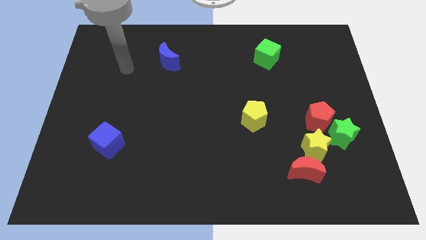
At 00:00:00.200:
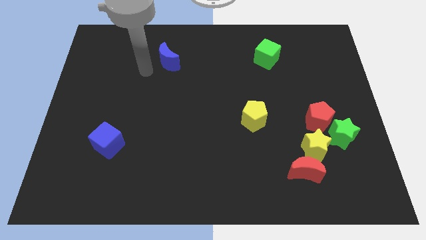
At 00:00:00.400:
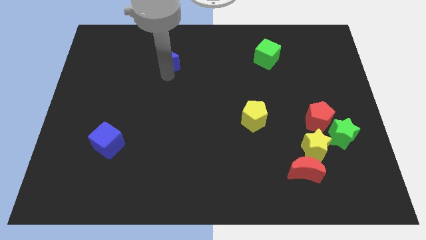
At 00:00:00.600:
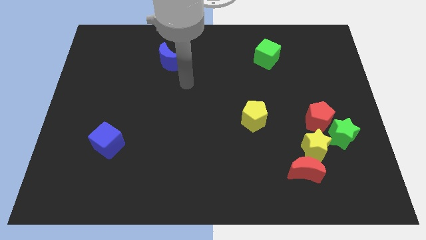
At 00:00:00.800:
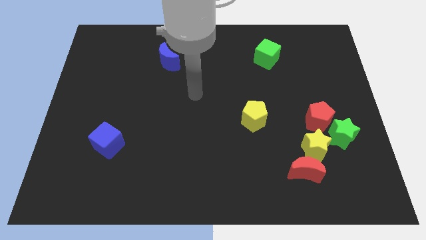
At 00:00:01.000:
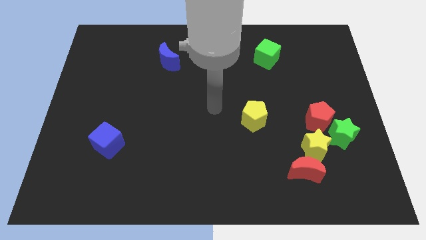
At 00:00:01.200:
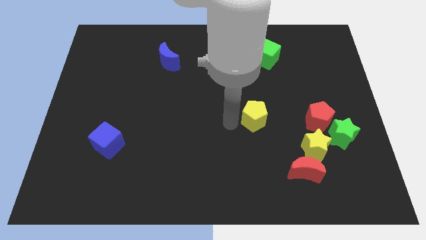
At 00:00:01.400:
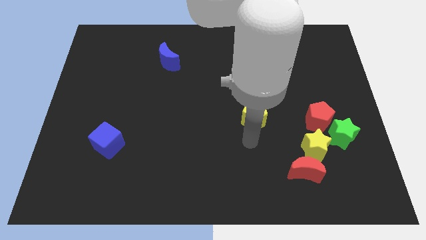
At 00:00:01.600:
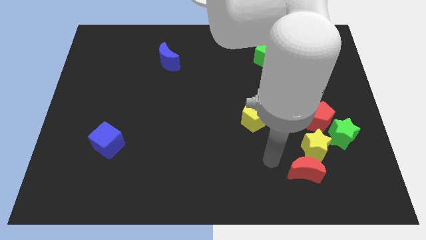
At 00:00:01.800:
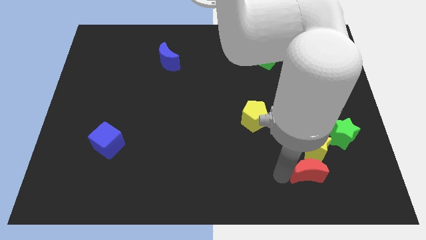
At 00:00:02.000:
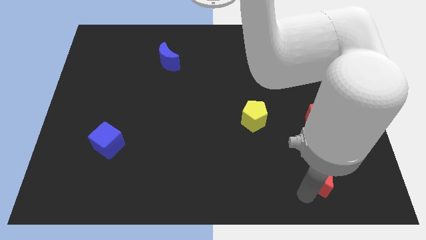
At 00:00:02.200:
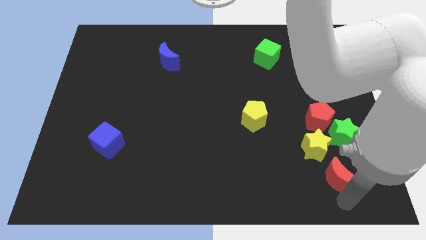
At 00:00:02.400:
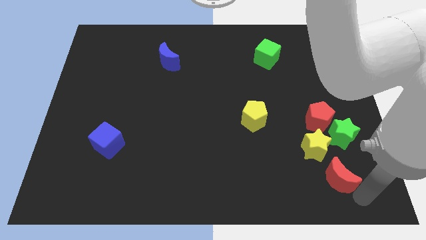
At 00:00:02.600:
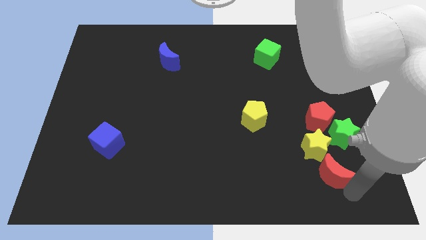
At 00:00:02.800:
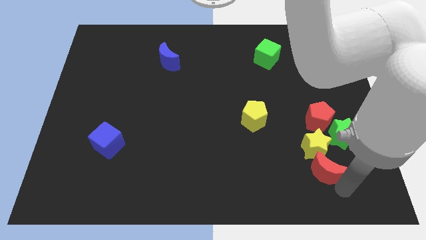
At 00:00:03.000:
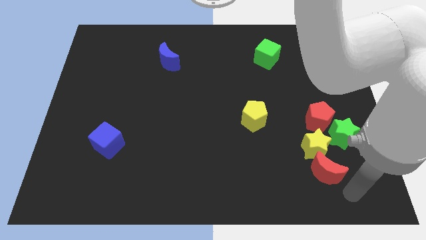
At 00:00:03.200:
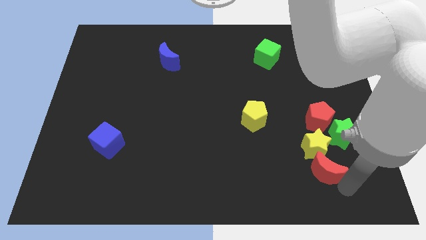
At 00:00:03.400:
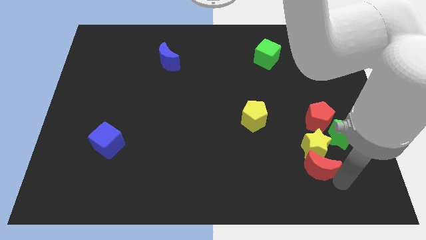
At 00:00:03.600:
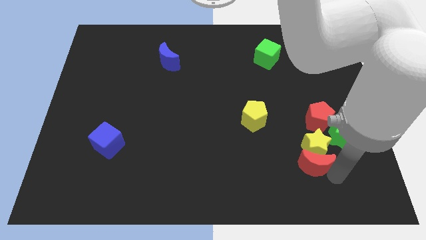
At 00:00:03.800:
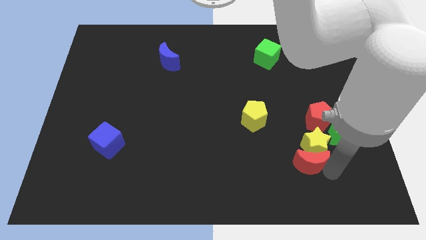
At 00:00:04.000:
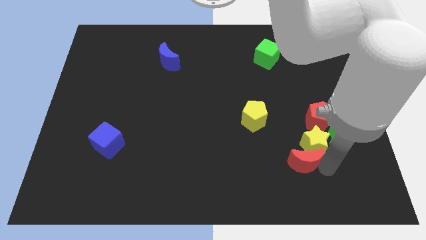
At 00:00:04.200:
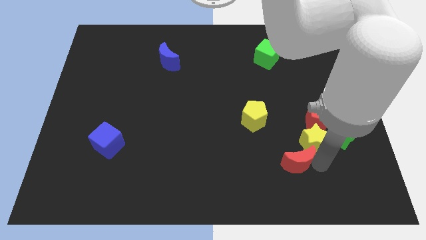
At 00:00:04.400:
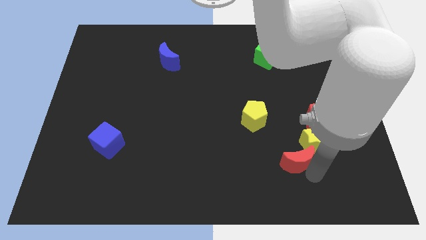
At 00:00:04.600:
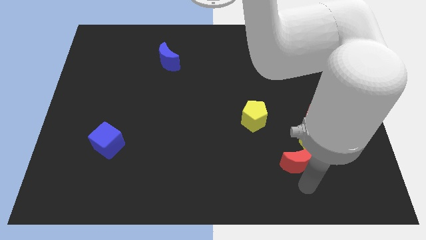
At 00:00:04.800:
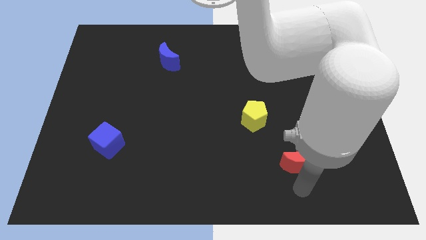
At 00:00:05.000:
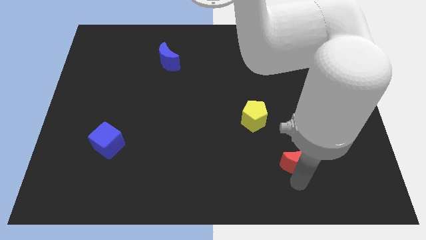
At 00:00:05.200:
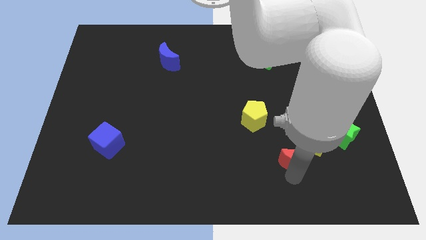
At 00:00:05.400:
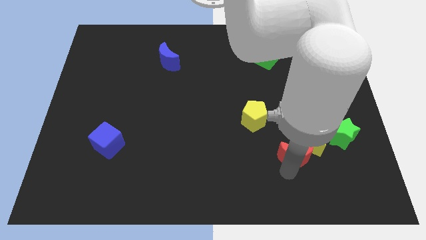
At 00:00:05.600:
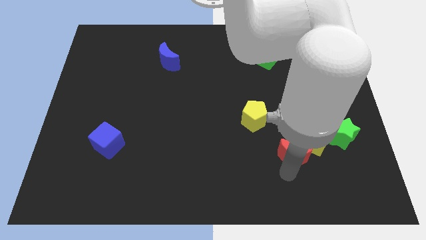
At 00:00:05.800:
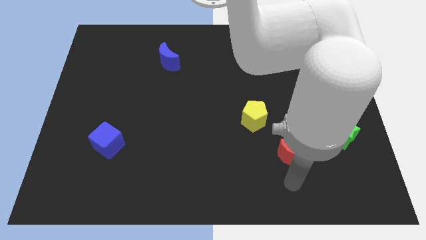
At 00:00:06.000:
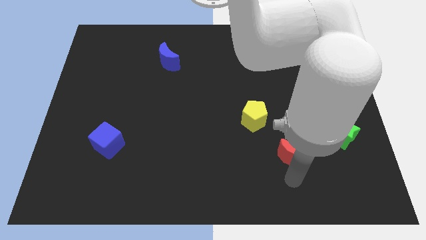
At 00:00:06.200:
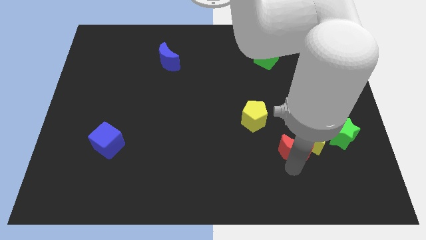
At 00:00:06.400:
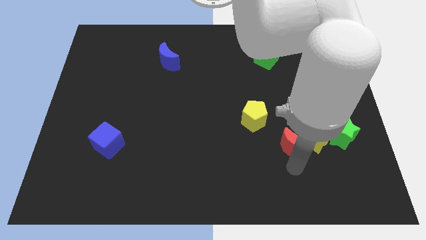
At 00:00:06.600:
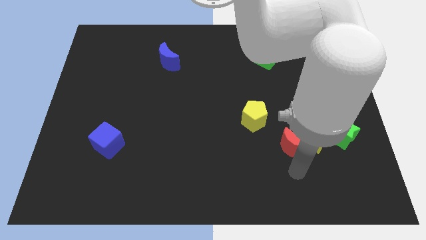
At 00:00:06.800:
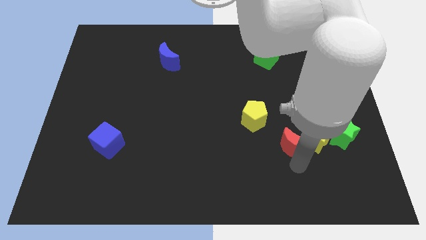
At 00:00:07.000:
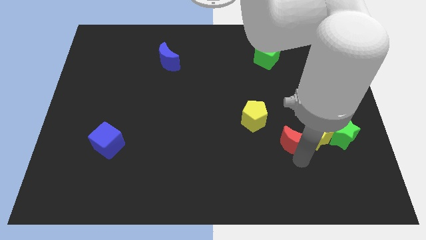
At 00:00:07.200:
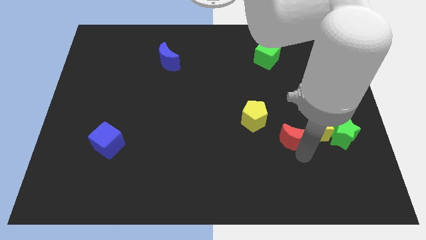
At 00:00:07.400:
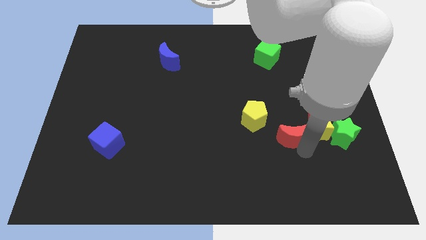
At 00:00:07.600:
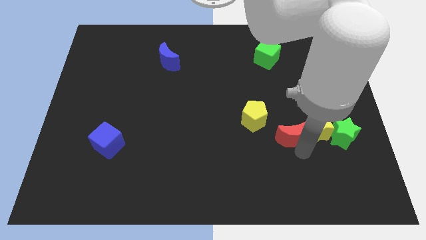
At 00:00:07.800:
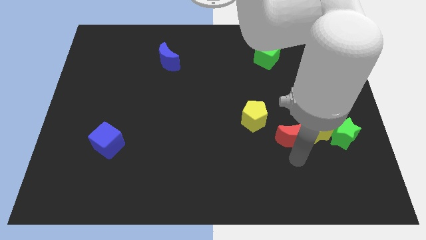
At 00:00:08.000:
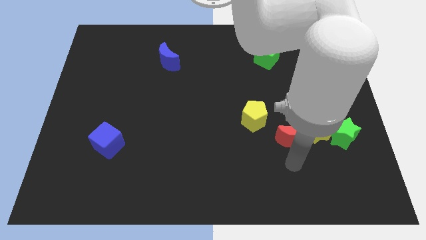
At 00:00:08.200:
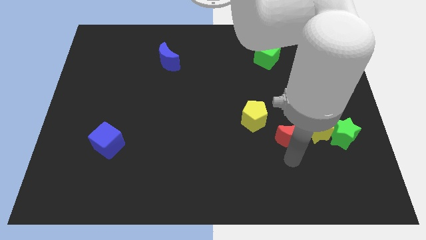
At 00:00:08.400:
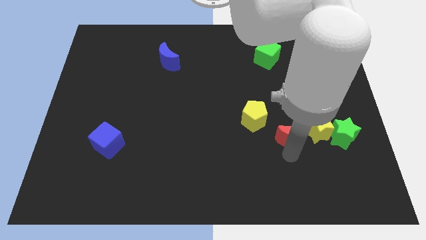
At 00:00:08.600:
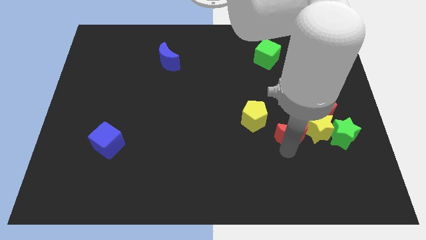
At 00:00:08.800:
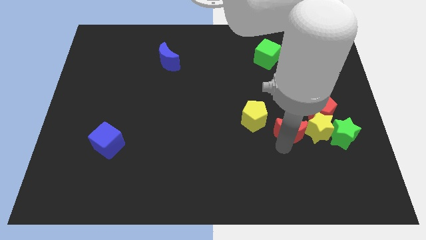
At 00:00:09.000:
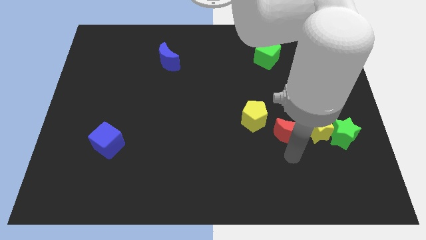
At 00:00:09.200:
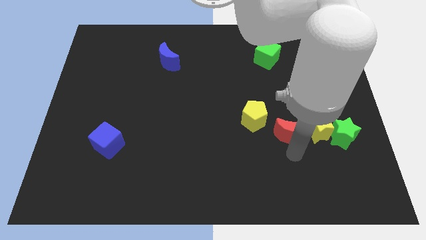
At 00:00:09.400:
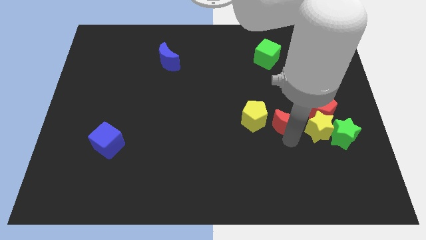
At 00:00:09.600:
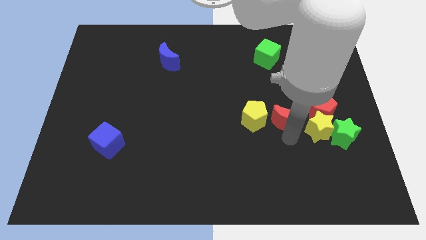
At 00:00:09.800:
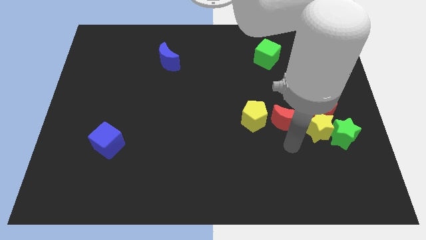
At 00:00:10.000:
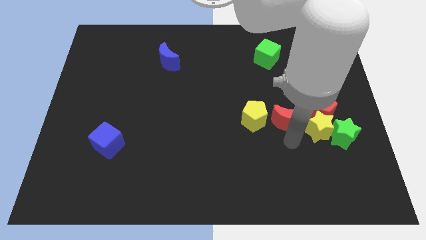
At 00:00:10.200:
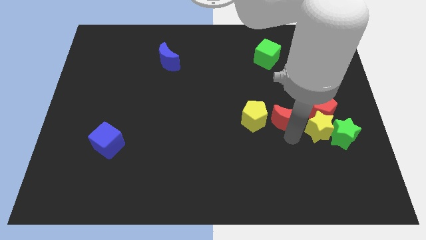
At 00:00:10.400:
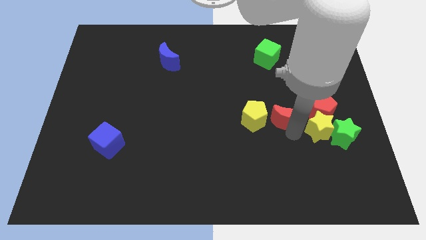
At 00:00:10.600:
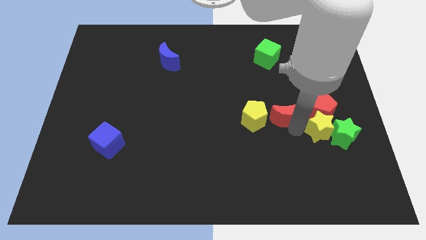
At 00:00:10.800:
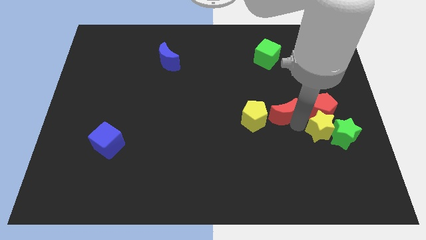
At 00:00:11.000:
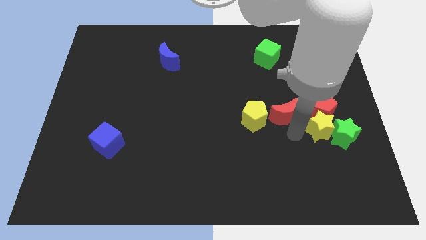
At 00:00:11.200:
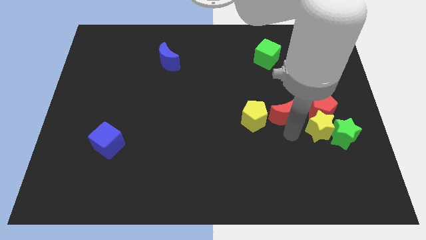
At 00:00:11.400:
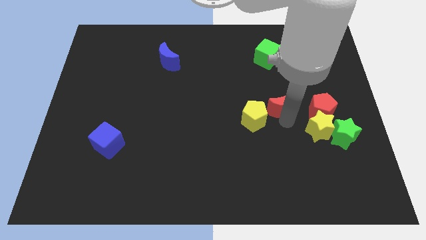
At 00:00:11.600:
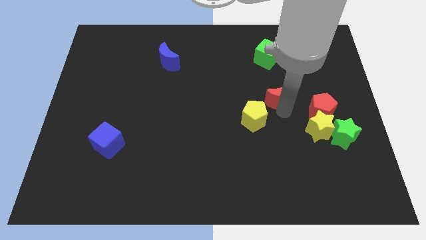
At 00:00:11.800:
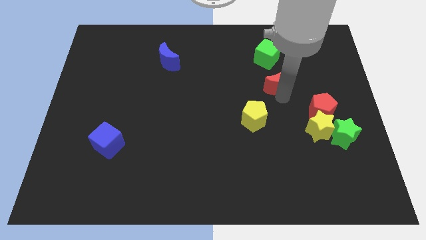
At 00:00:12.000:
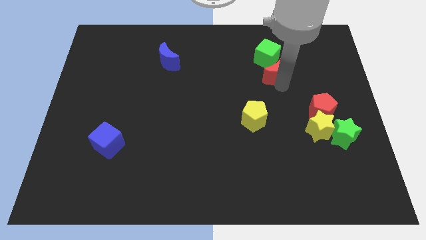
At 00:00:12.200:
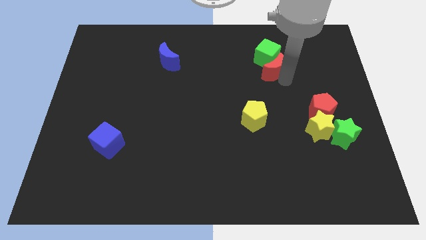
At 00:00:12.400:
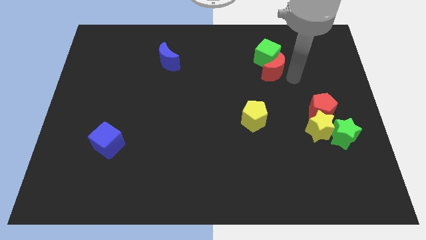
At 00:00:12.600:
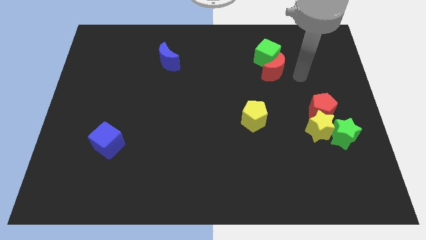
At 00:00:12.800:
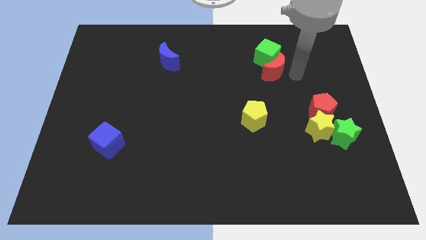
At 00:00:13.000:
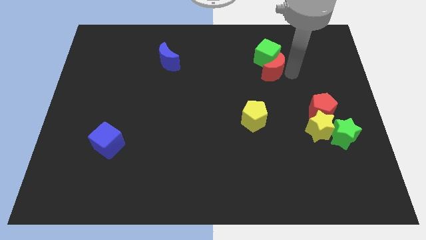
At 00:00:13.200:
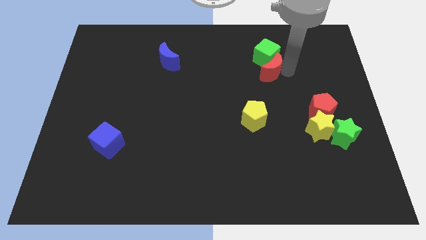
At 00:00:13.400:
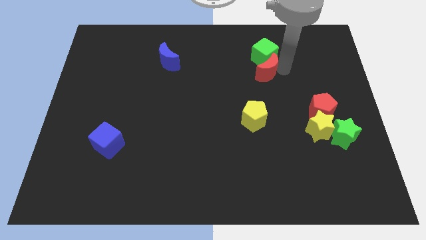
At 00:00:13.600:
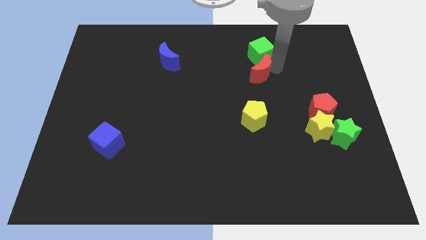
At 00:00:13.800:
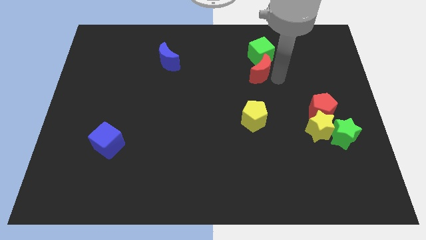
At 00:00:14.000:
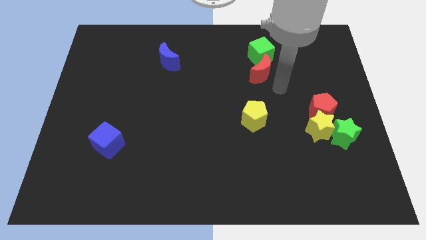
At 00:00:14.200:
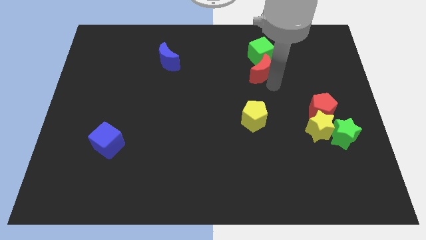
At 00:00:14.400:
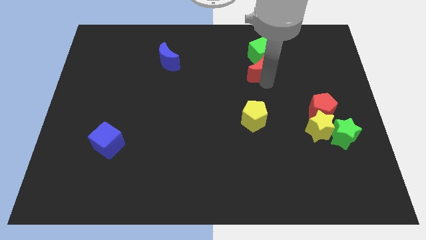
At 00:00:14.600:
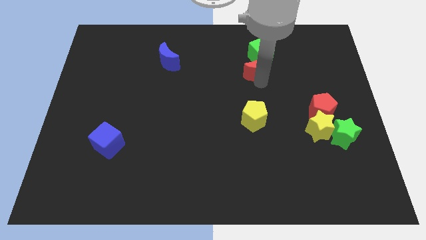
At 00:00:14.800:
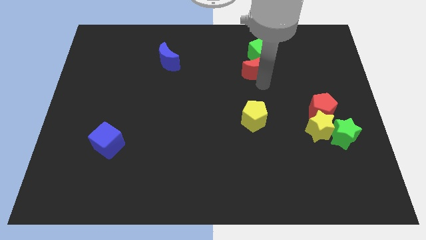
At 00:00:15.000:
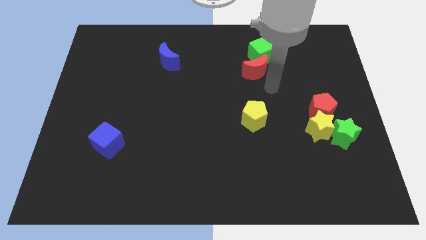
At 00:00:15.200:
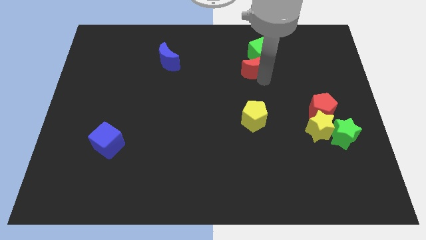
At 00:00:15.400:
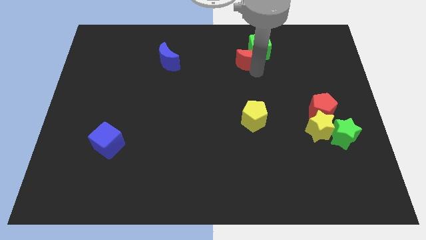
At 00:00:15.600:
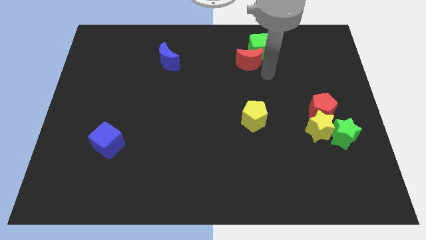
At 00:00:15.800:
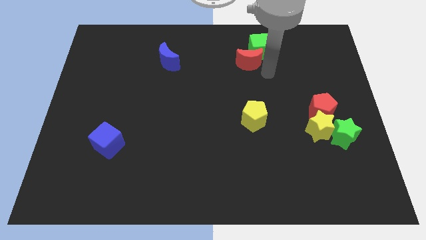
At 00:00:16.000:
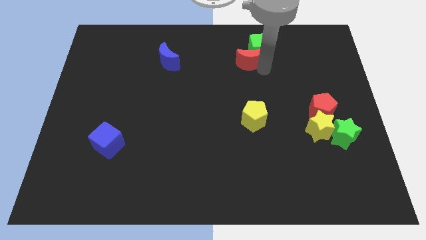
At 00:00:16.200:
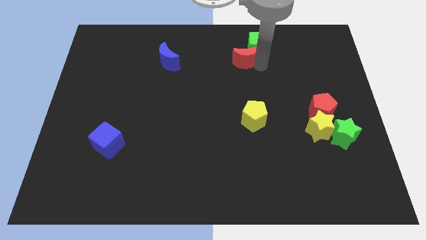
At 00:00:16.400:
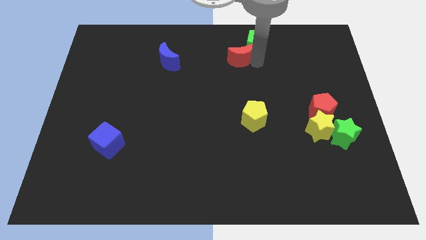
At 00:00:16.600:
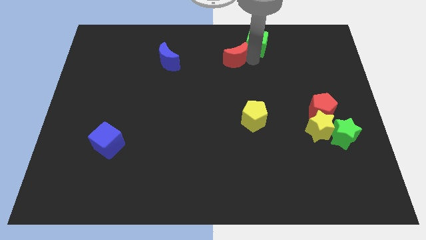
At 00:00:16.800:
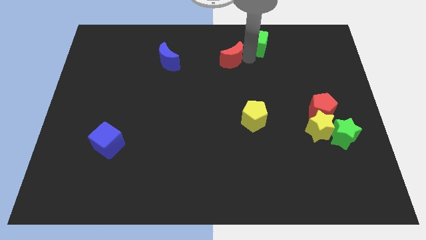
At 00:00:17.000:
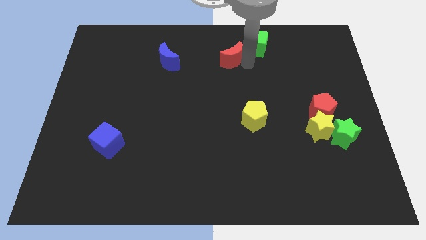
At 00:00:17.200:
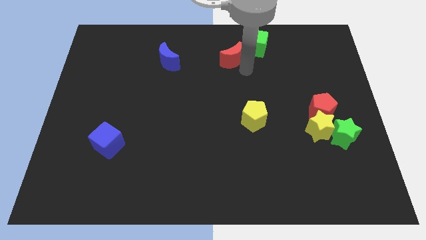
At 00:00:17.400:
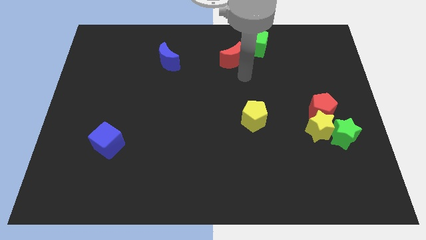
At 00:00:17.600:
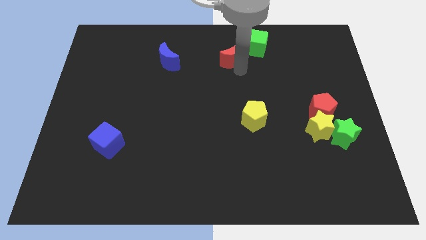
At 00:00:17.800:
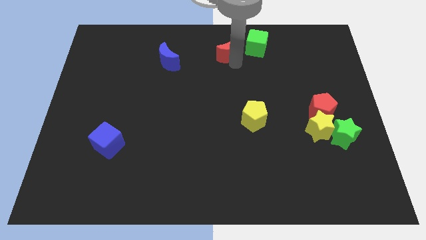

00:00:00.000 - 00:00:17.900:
slide the red moon to the top side
